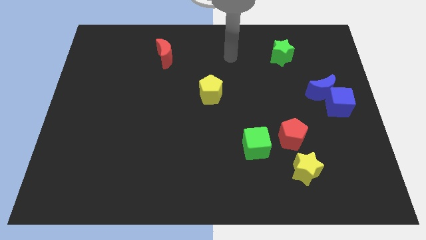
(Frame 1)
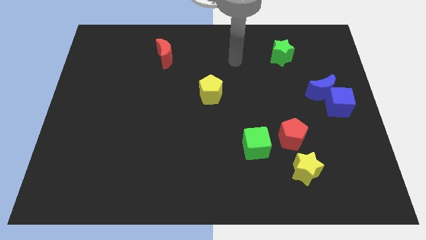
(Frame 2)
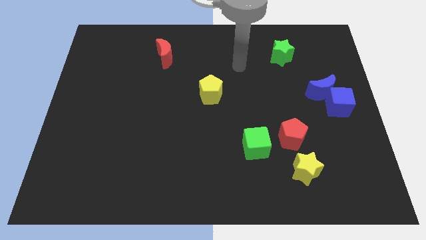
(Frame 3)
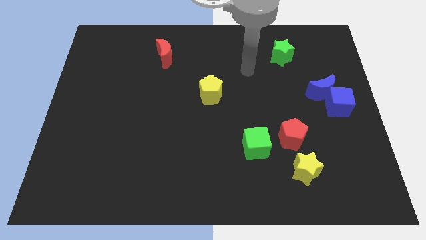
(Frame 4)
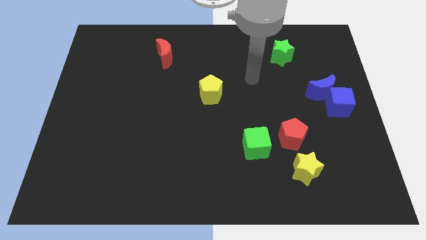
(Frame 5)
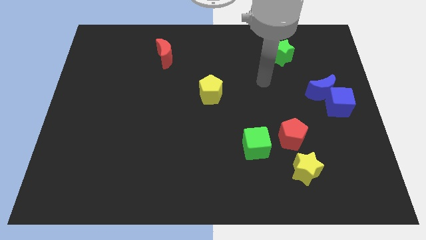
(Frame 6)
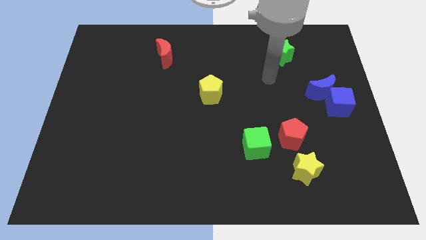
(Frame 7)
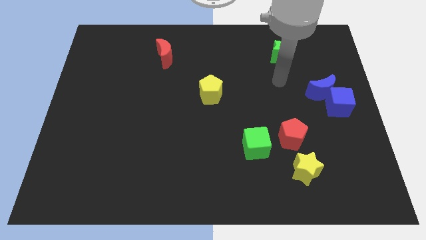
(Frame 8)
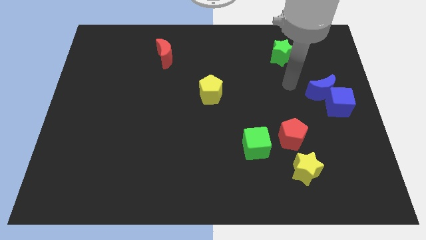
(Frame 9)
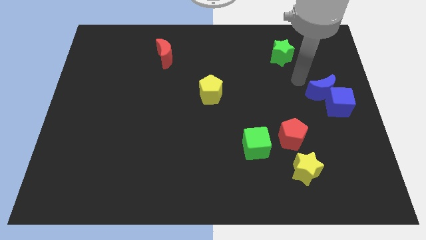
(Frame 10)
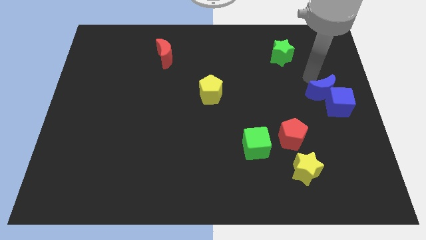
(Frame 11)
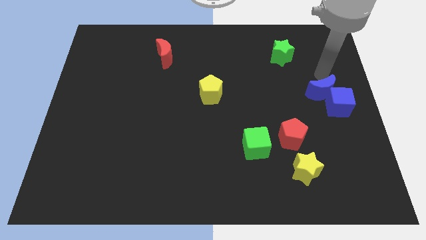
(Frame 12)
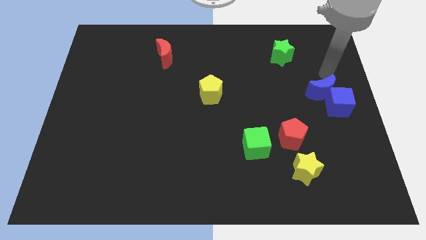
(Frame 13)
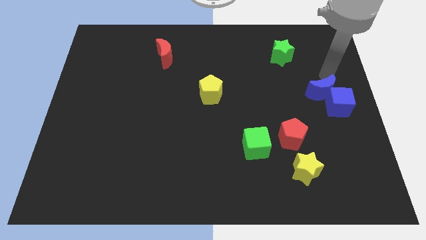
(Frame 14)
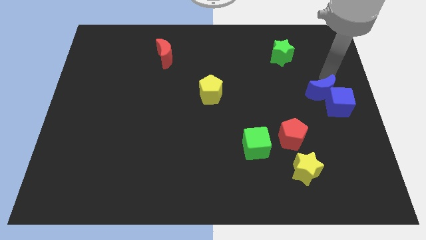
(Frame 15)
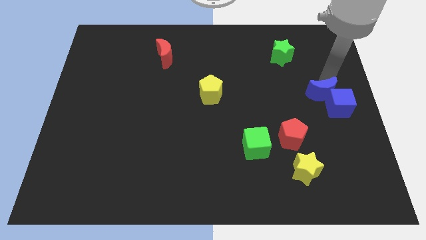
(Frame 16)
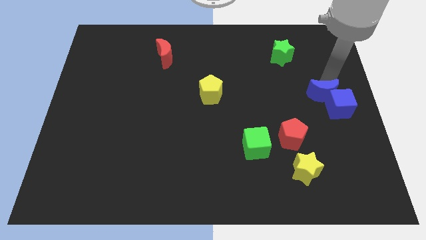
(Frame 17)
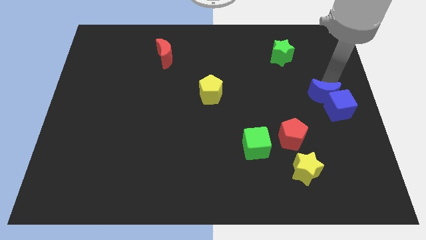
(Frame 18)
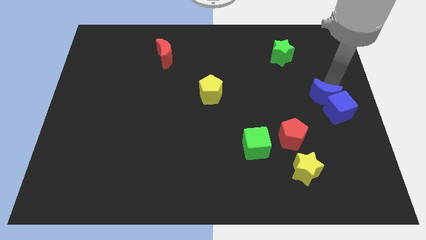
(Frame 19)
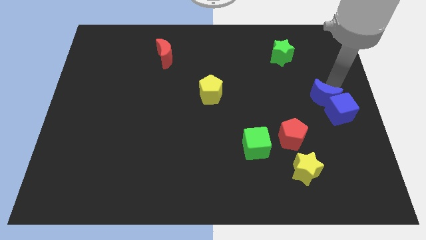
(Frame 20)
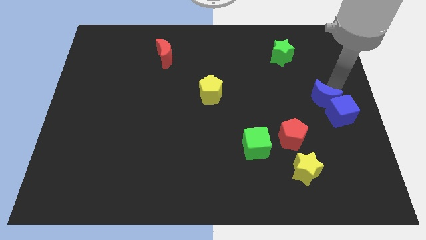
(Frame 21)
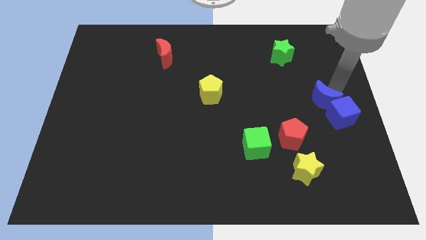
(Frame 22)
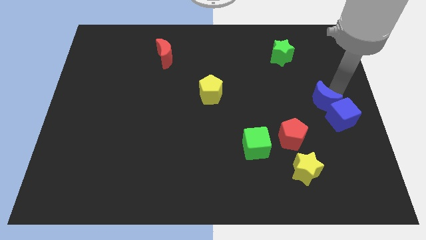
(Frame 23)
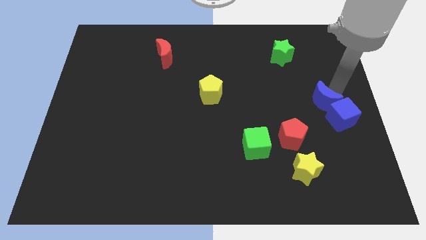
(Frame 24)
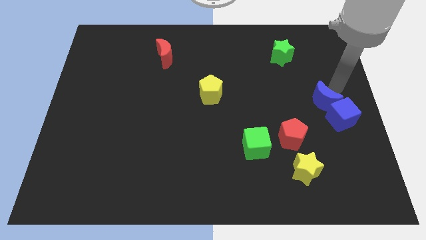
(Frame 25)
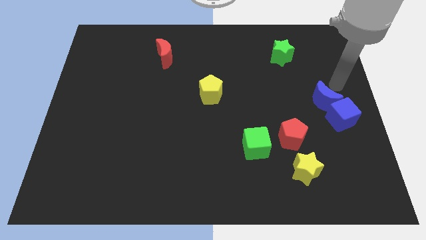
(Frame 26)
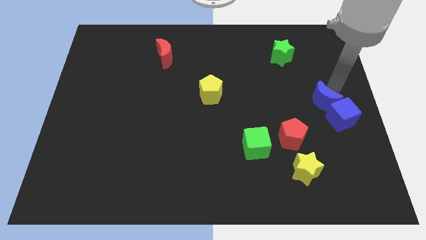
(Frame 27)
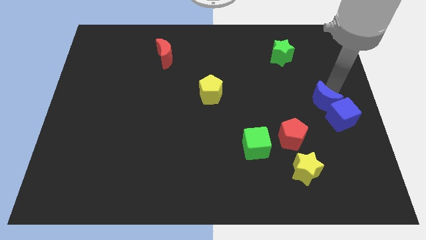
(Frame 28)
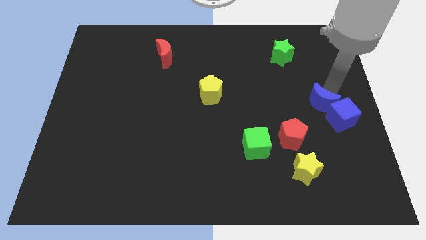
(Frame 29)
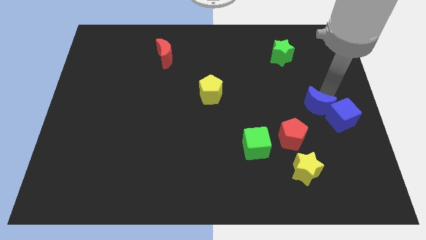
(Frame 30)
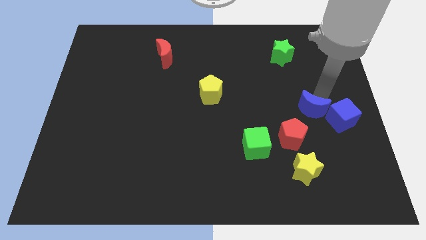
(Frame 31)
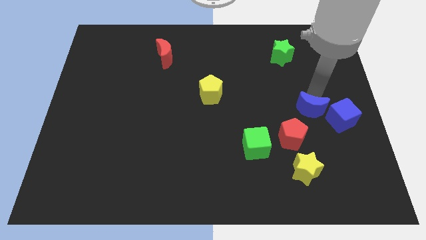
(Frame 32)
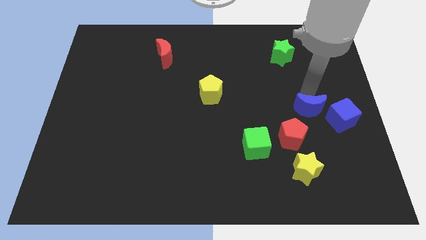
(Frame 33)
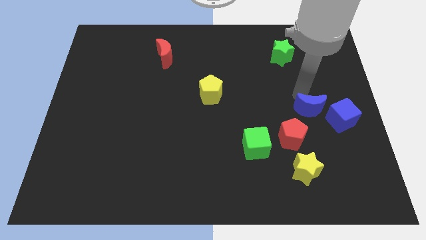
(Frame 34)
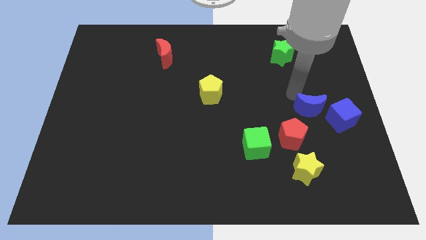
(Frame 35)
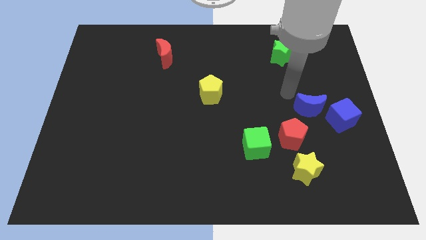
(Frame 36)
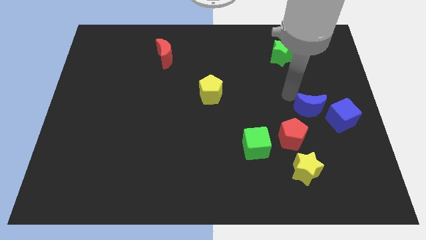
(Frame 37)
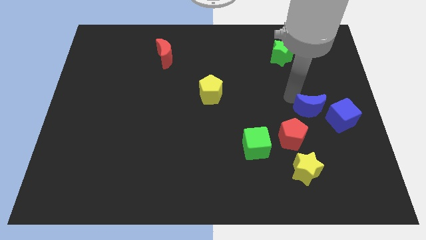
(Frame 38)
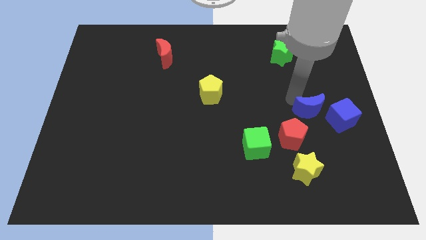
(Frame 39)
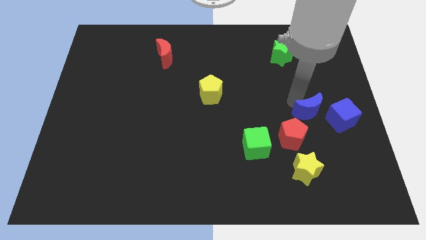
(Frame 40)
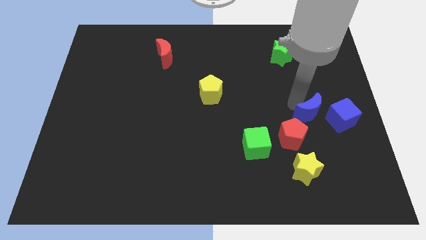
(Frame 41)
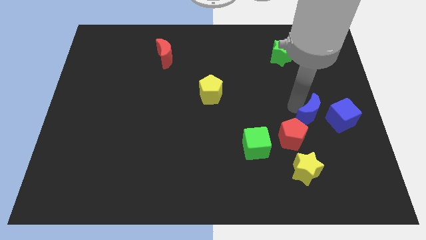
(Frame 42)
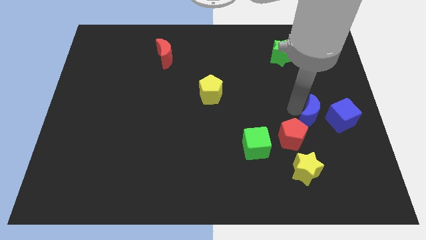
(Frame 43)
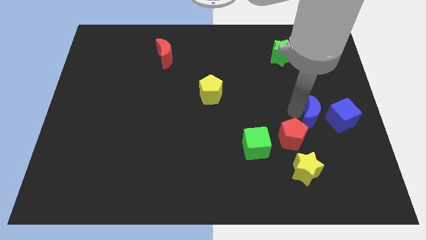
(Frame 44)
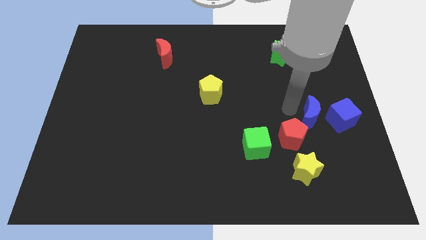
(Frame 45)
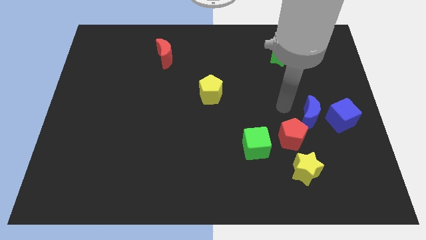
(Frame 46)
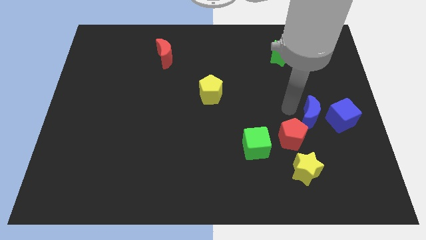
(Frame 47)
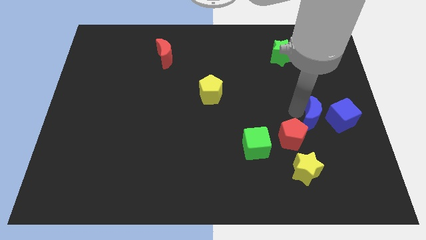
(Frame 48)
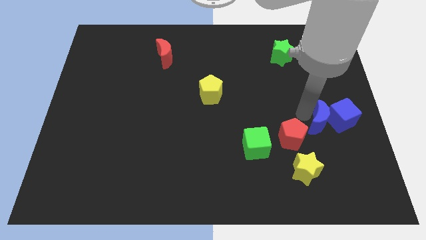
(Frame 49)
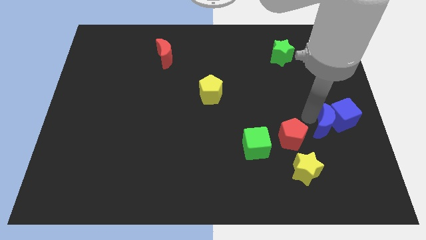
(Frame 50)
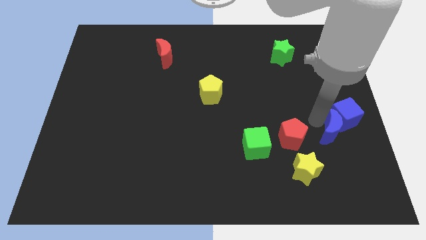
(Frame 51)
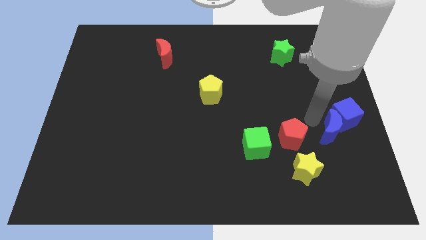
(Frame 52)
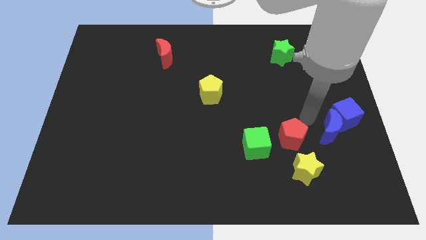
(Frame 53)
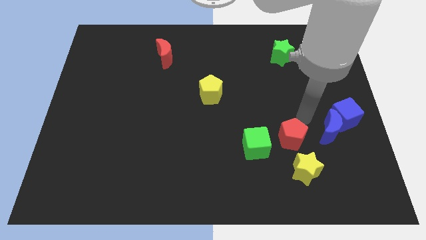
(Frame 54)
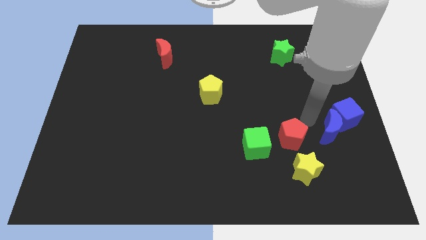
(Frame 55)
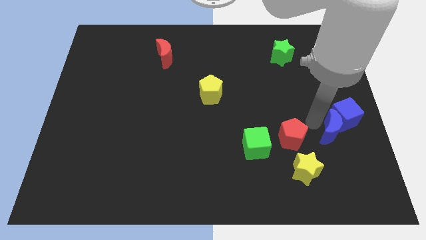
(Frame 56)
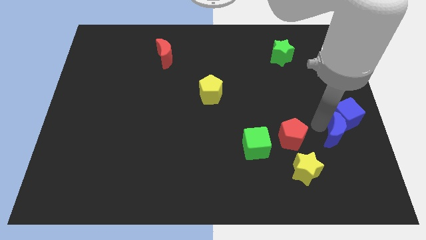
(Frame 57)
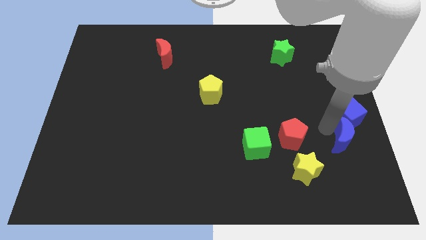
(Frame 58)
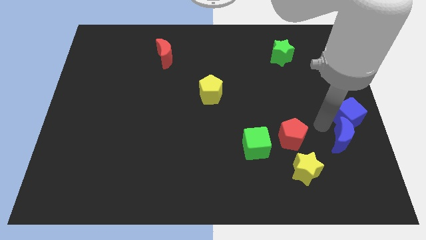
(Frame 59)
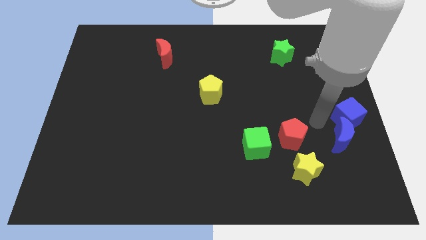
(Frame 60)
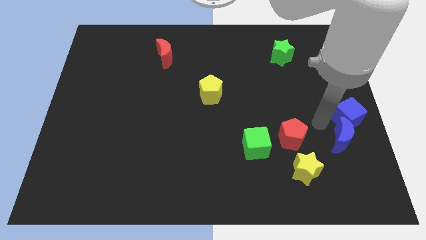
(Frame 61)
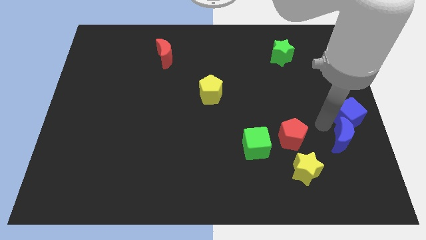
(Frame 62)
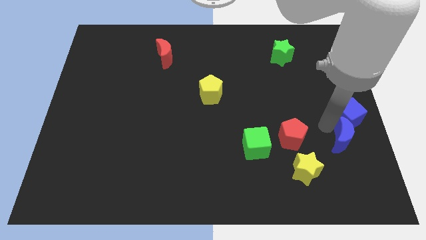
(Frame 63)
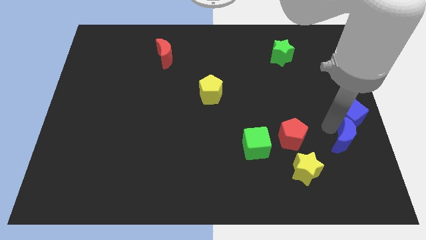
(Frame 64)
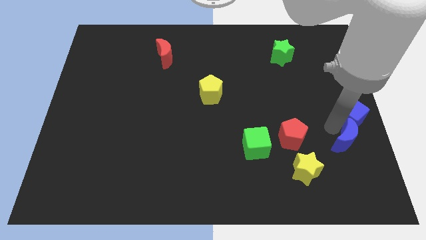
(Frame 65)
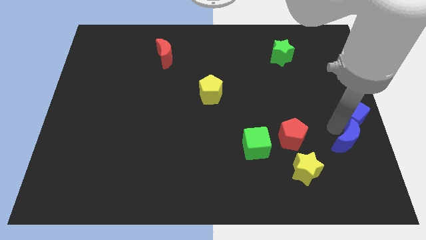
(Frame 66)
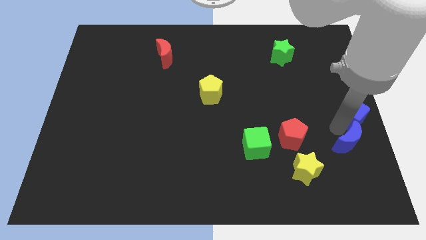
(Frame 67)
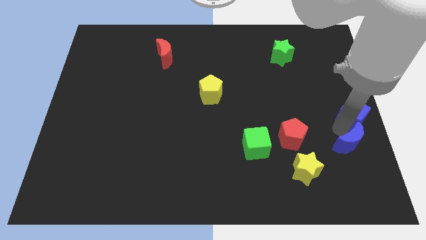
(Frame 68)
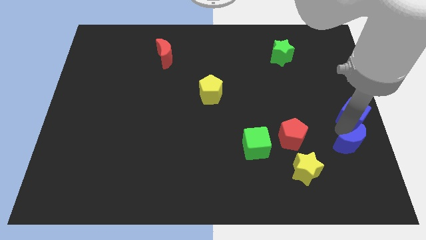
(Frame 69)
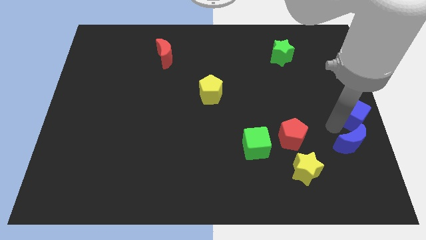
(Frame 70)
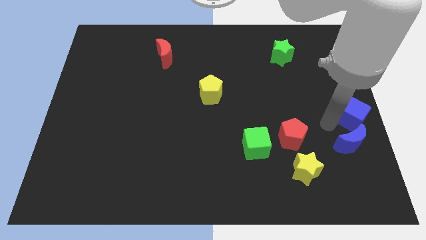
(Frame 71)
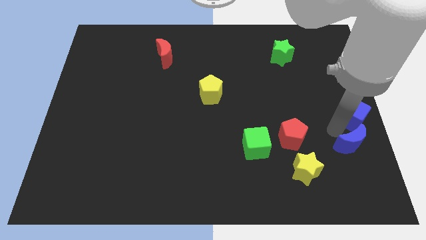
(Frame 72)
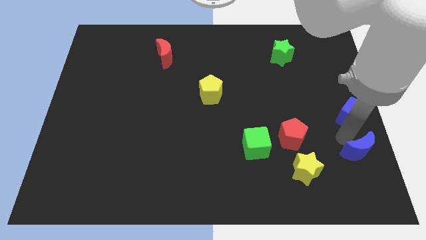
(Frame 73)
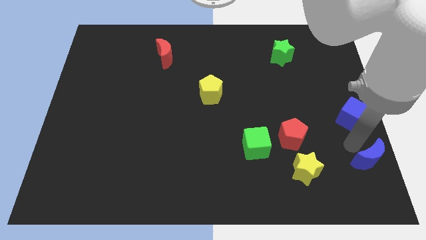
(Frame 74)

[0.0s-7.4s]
put the blue moon to the bottom right corner

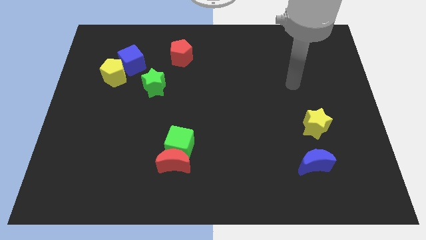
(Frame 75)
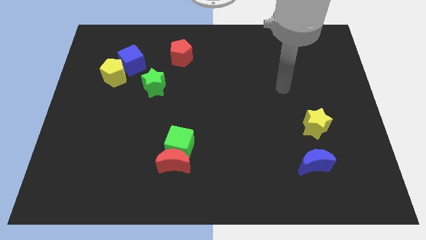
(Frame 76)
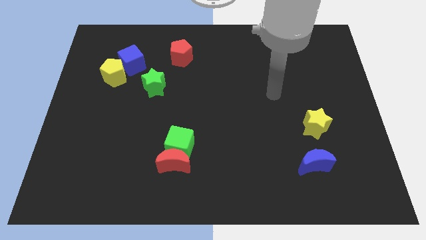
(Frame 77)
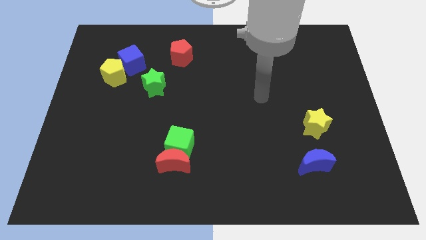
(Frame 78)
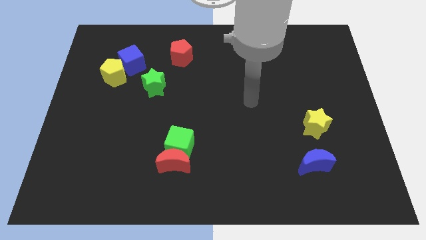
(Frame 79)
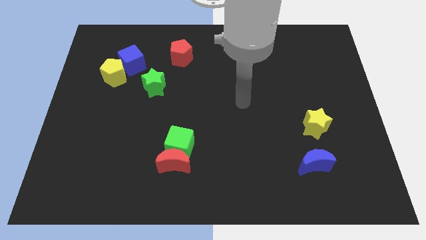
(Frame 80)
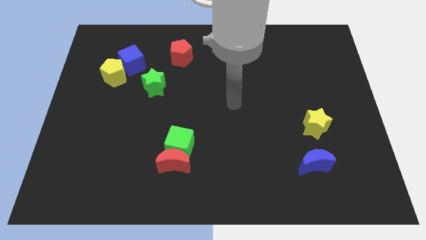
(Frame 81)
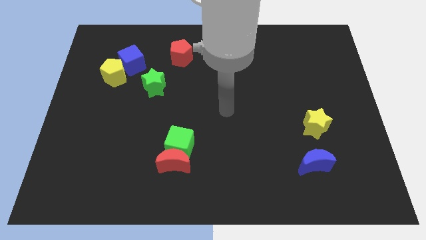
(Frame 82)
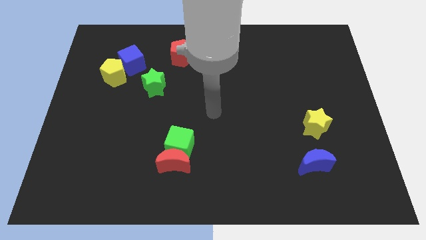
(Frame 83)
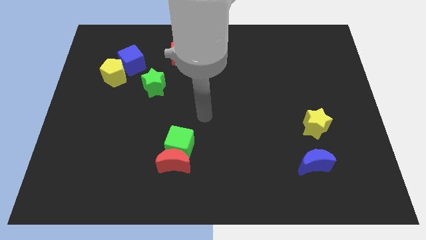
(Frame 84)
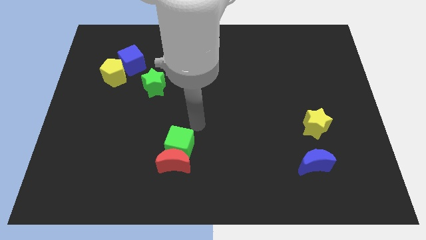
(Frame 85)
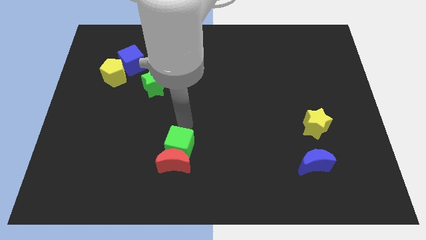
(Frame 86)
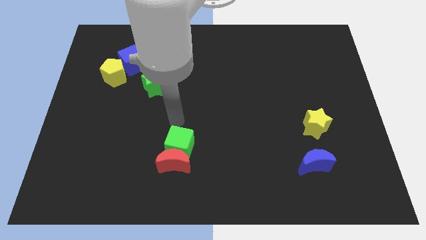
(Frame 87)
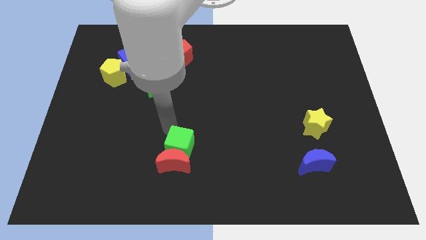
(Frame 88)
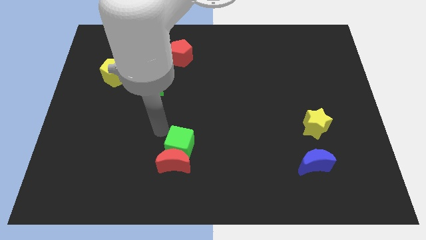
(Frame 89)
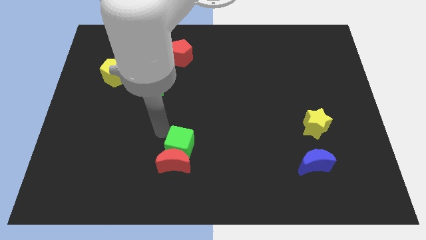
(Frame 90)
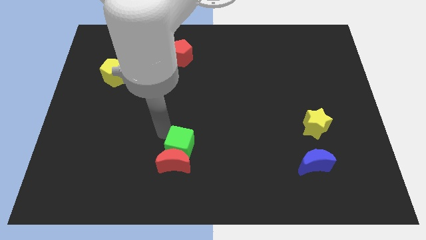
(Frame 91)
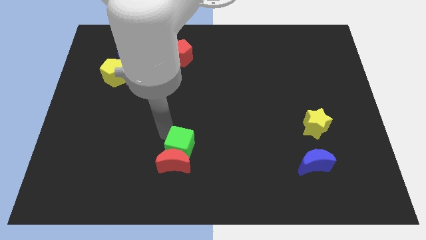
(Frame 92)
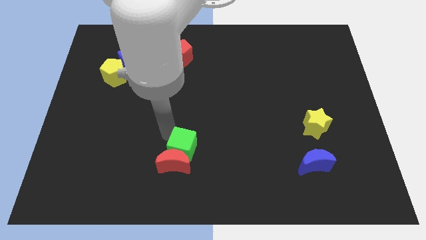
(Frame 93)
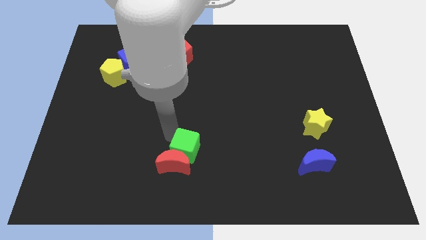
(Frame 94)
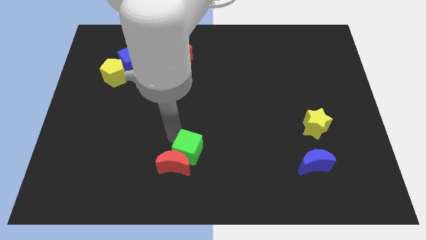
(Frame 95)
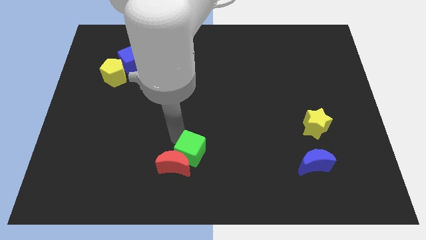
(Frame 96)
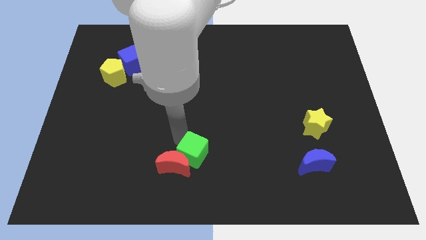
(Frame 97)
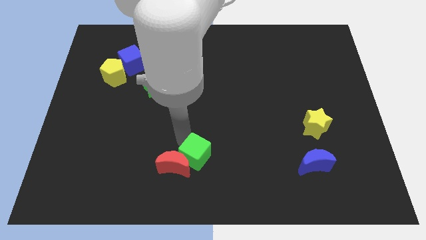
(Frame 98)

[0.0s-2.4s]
slide the green cube to the bottom side
